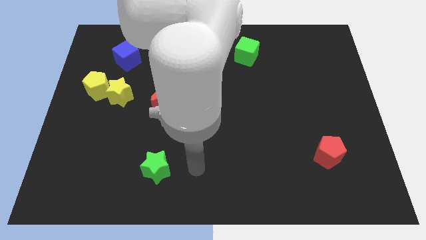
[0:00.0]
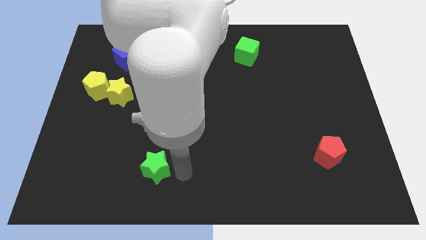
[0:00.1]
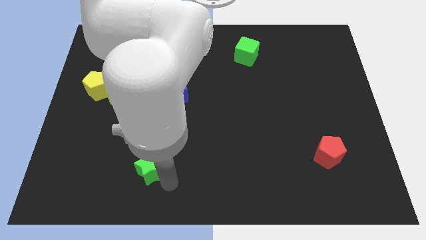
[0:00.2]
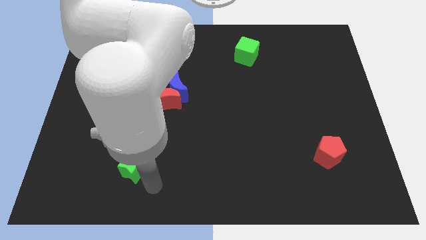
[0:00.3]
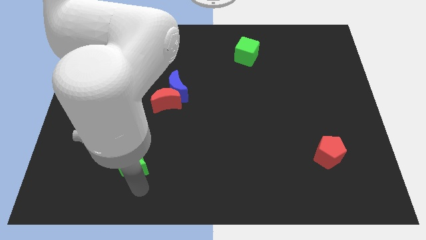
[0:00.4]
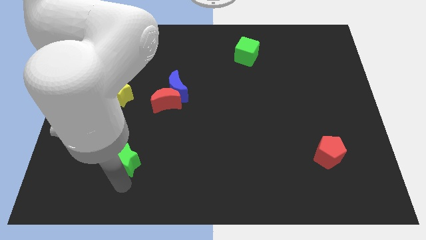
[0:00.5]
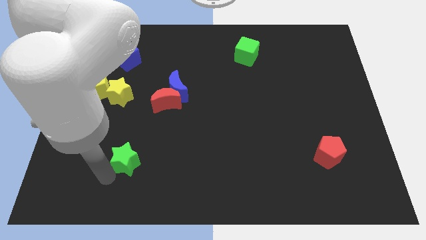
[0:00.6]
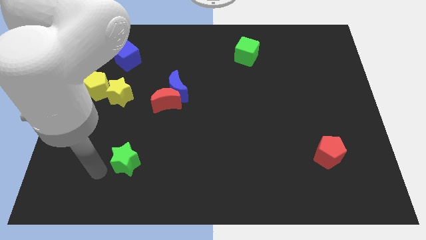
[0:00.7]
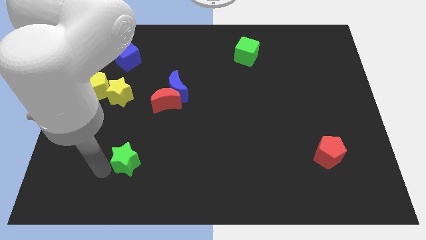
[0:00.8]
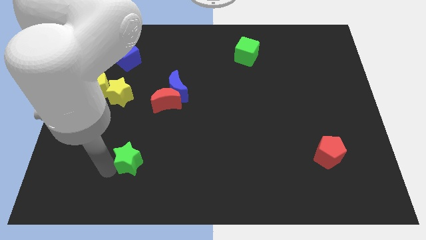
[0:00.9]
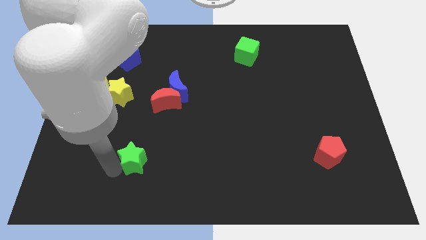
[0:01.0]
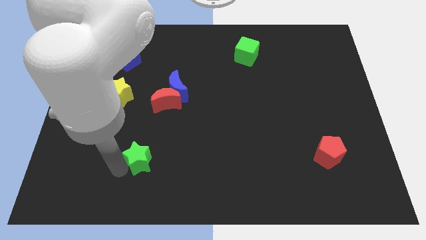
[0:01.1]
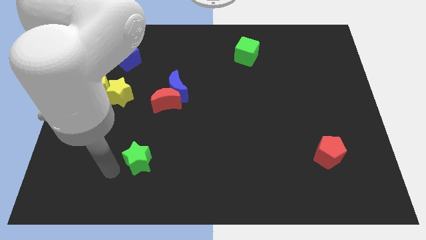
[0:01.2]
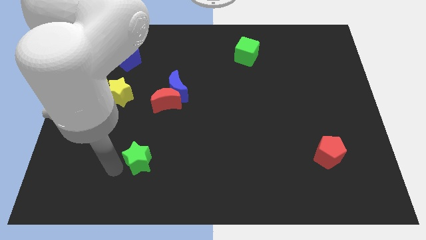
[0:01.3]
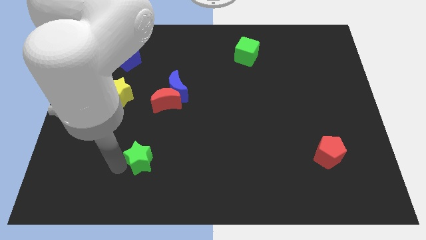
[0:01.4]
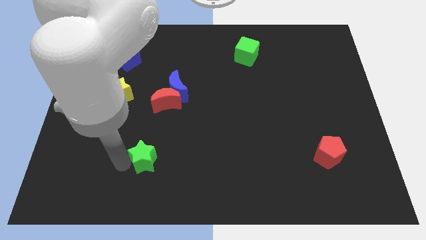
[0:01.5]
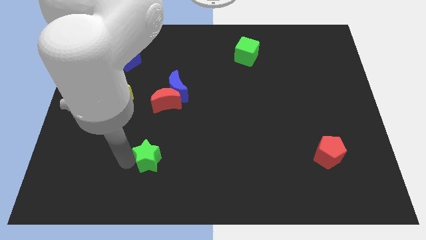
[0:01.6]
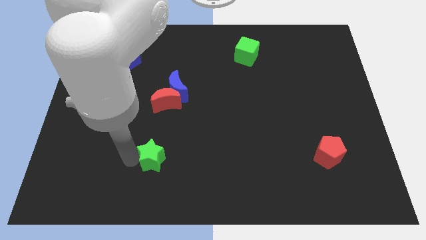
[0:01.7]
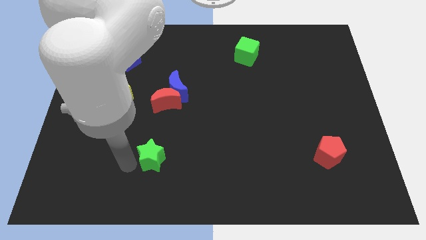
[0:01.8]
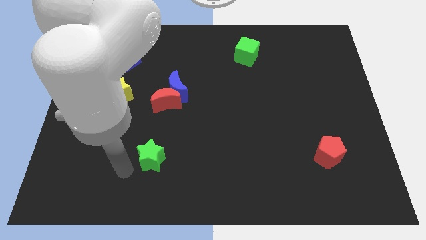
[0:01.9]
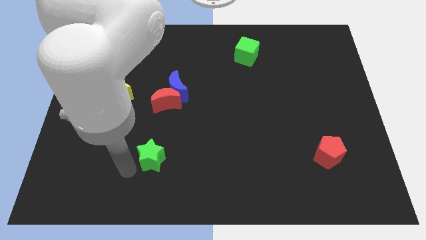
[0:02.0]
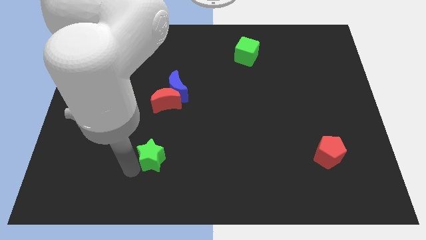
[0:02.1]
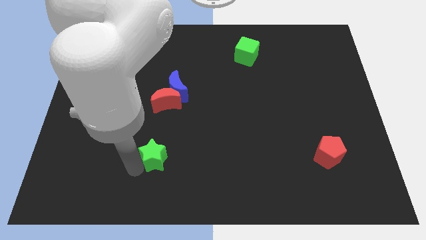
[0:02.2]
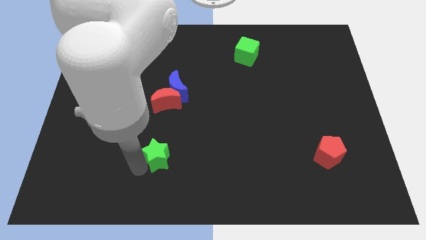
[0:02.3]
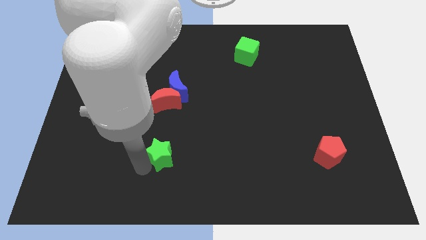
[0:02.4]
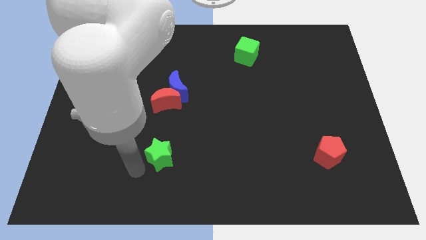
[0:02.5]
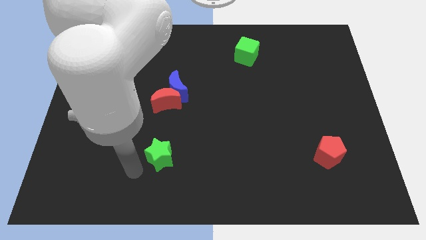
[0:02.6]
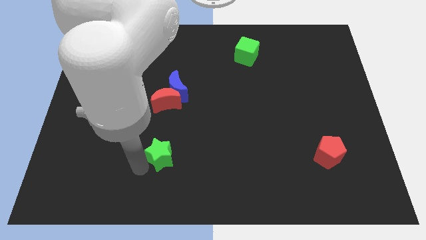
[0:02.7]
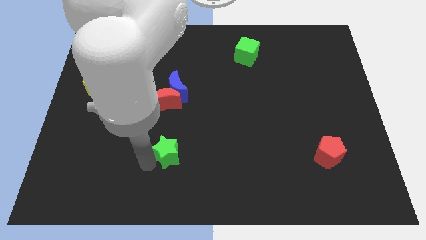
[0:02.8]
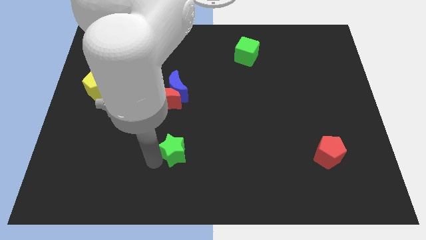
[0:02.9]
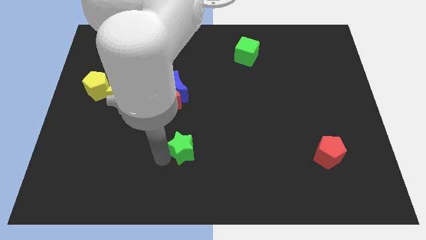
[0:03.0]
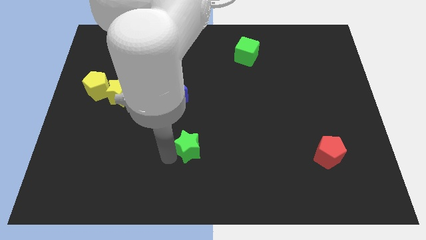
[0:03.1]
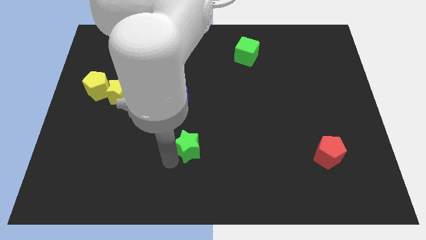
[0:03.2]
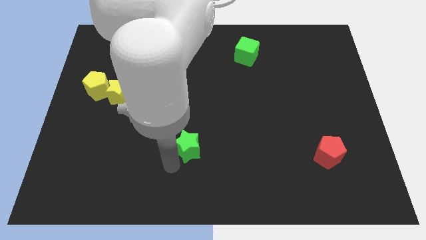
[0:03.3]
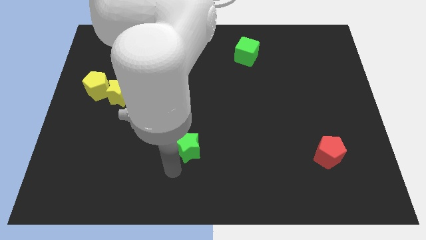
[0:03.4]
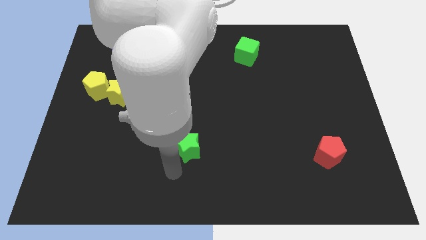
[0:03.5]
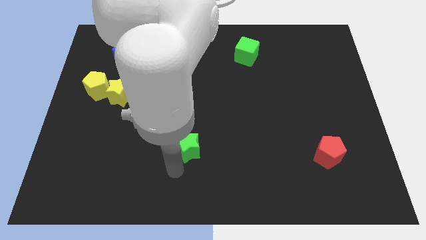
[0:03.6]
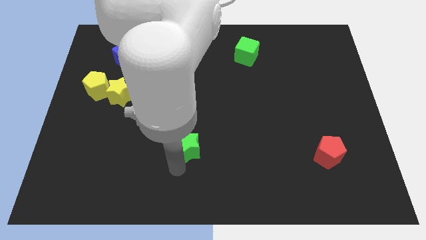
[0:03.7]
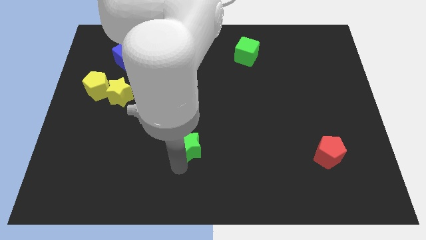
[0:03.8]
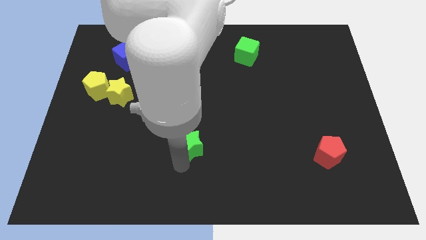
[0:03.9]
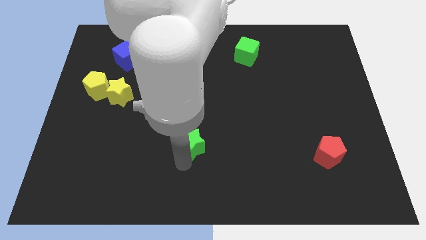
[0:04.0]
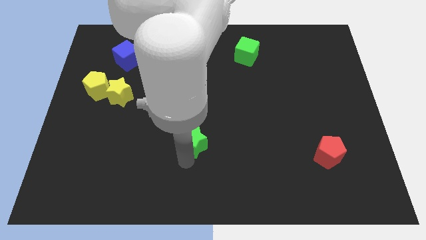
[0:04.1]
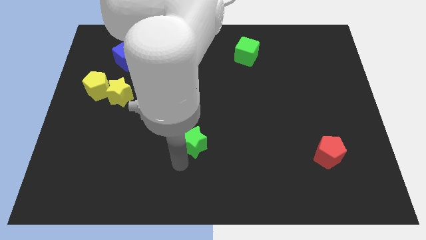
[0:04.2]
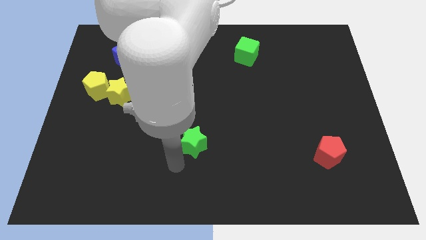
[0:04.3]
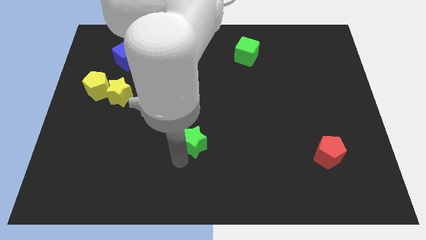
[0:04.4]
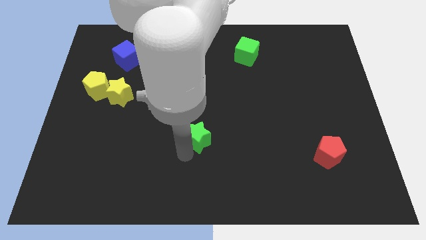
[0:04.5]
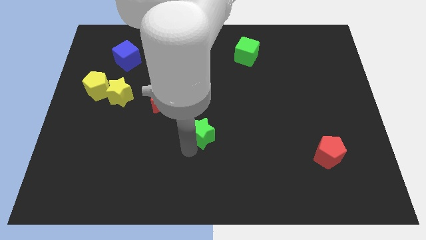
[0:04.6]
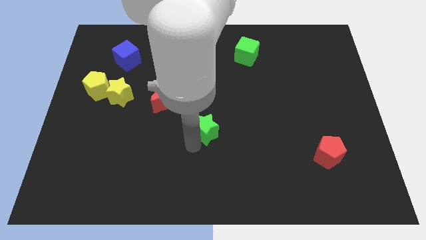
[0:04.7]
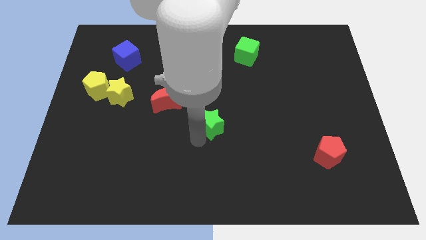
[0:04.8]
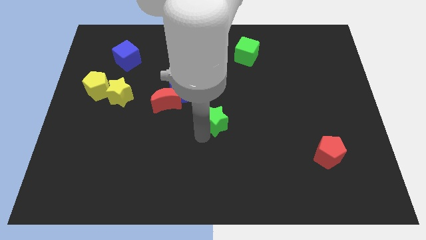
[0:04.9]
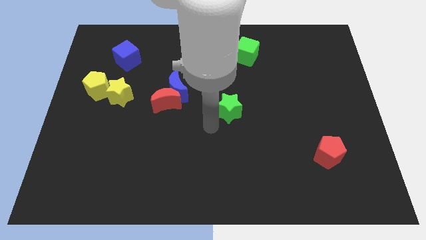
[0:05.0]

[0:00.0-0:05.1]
slide the green star up and to the right

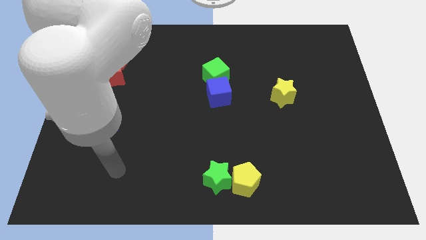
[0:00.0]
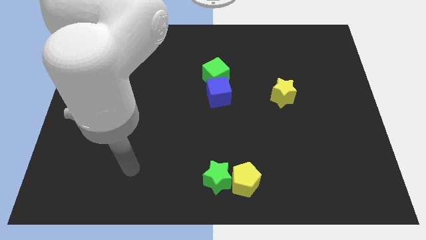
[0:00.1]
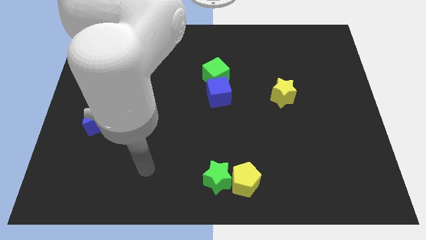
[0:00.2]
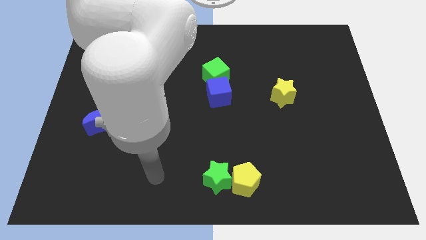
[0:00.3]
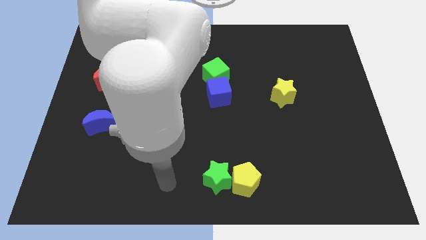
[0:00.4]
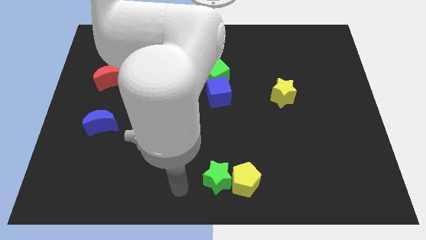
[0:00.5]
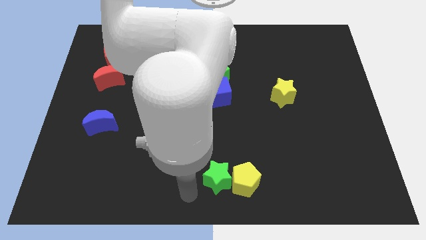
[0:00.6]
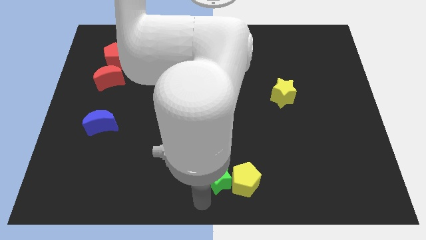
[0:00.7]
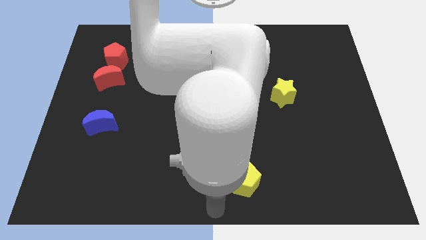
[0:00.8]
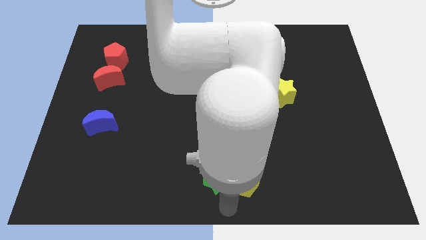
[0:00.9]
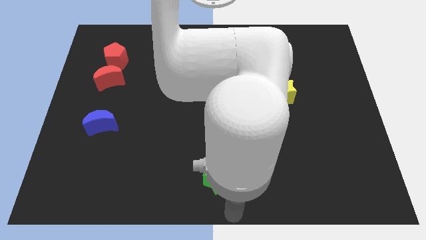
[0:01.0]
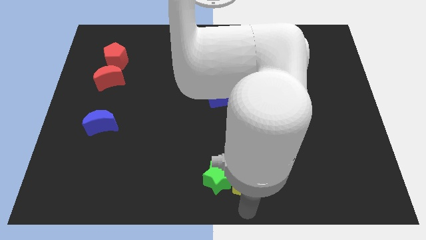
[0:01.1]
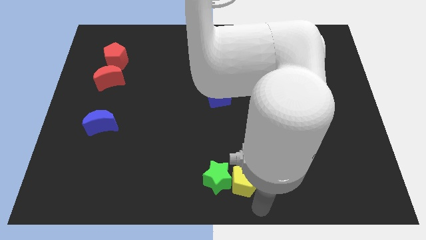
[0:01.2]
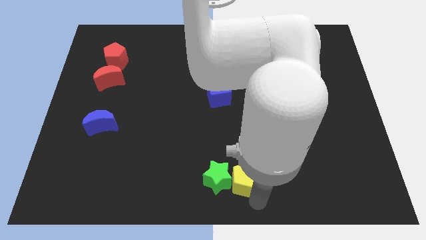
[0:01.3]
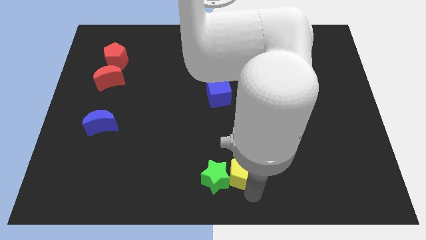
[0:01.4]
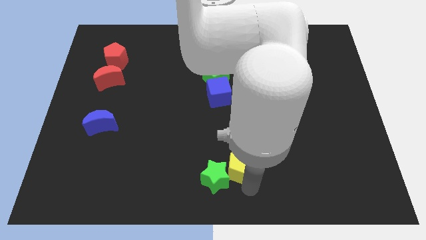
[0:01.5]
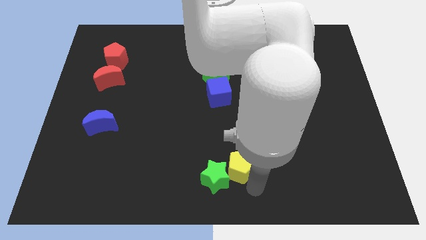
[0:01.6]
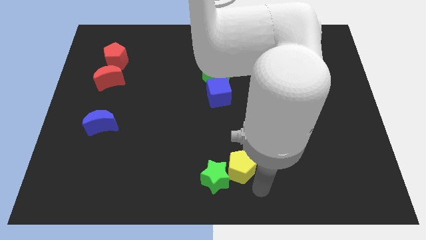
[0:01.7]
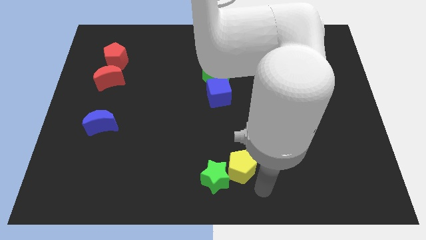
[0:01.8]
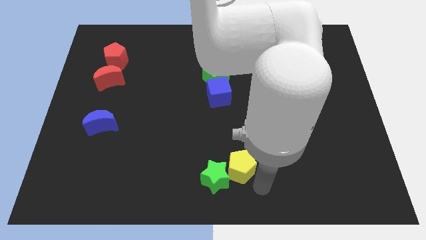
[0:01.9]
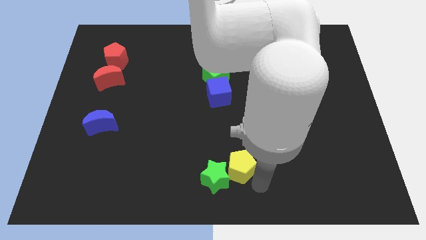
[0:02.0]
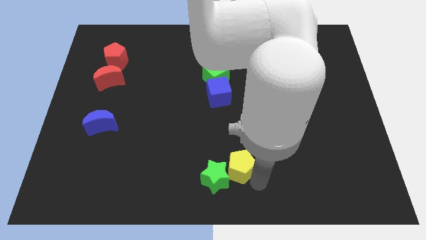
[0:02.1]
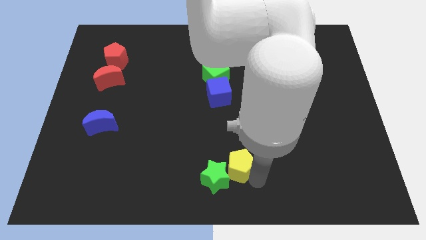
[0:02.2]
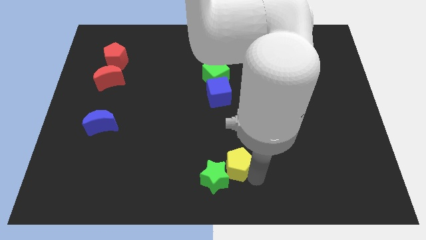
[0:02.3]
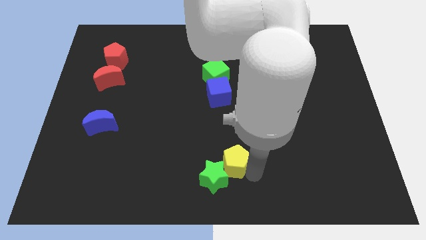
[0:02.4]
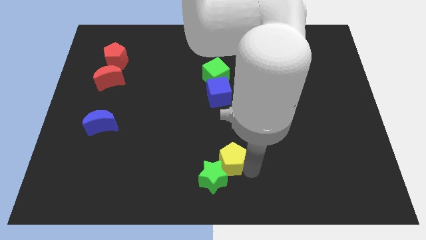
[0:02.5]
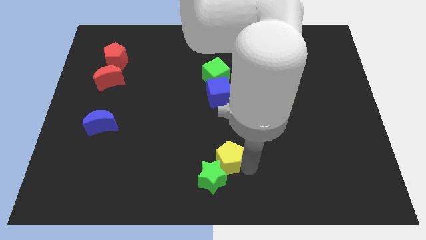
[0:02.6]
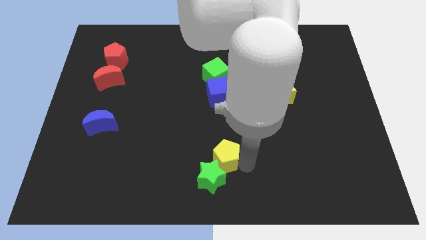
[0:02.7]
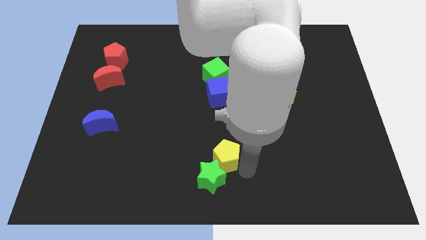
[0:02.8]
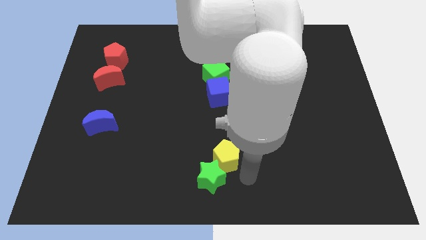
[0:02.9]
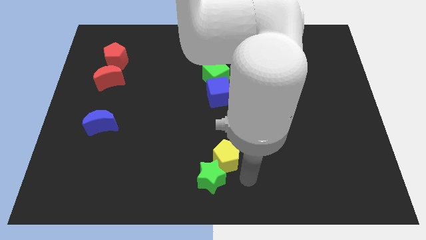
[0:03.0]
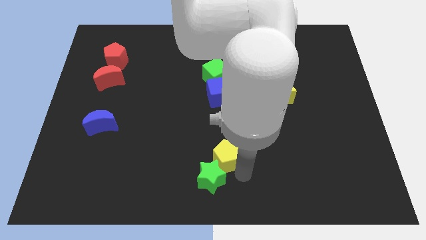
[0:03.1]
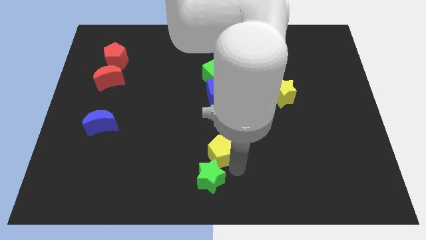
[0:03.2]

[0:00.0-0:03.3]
slightly slide the yellow pentagon diagonally up and left
